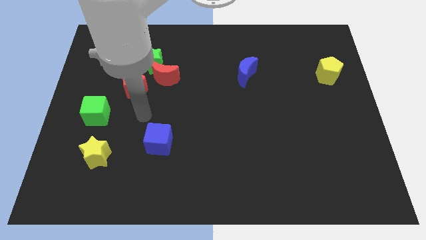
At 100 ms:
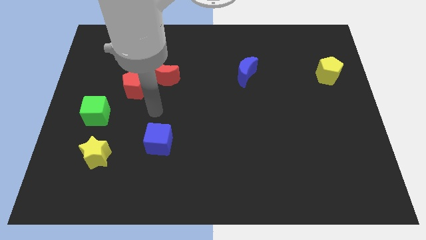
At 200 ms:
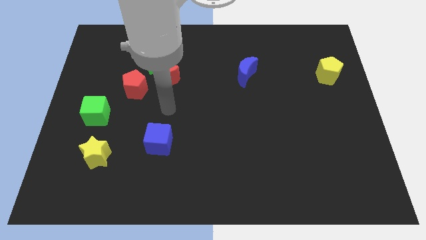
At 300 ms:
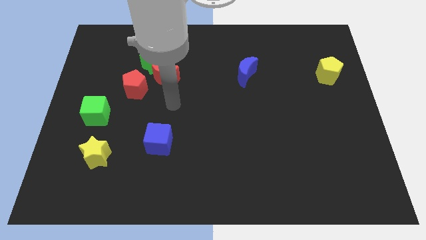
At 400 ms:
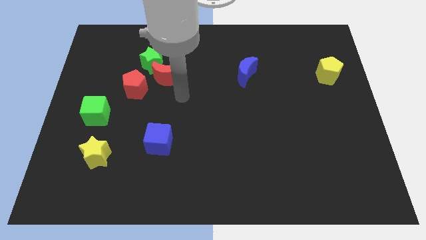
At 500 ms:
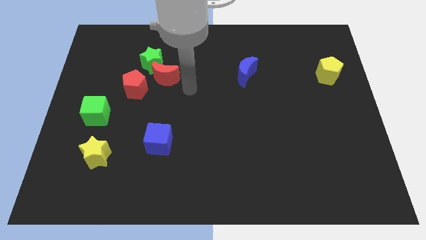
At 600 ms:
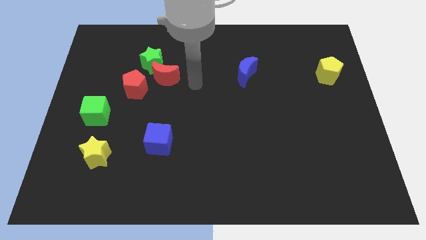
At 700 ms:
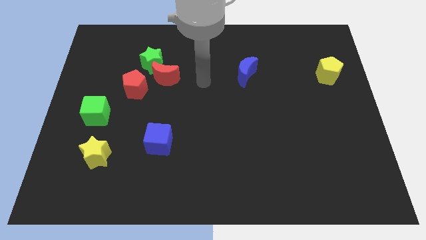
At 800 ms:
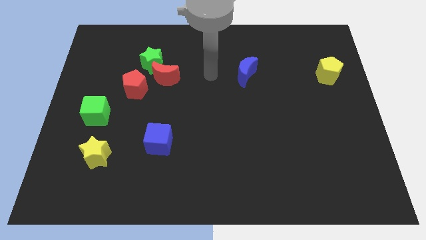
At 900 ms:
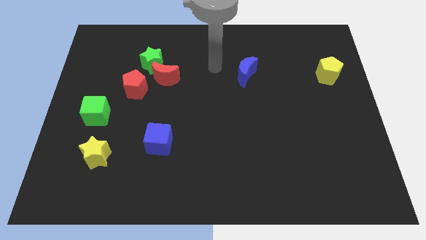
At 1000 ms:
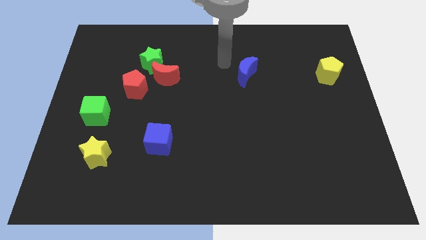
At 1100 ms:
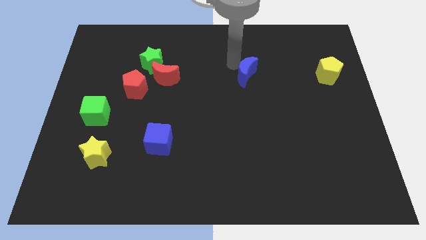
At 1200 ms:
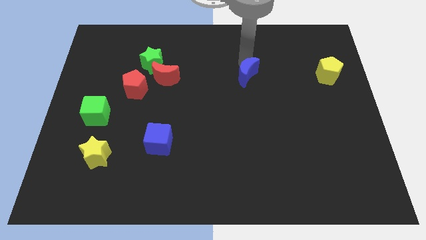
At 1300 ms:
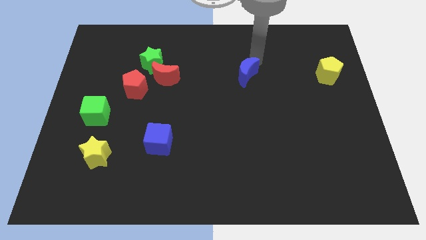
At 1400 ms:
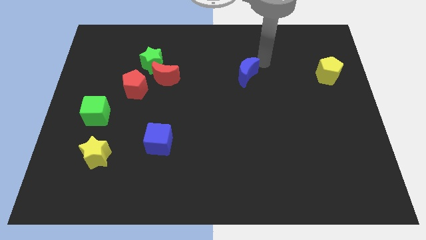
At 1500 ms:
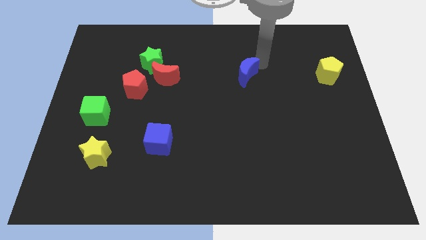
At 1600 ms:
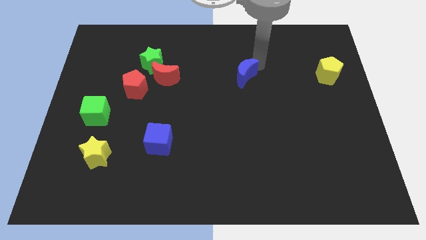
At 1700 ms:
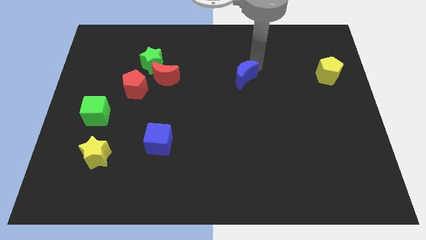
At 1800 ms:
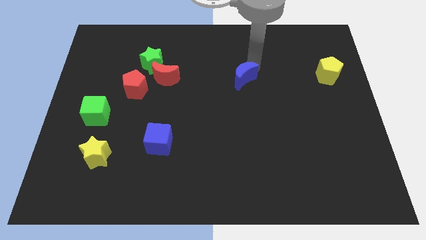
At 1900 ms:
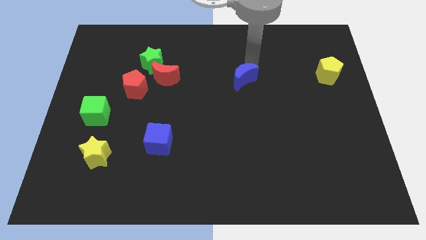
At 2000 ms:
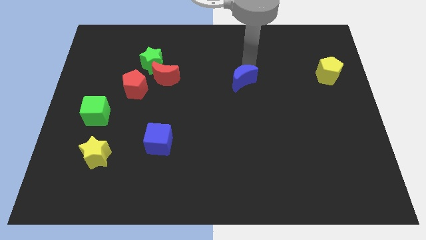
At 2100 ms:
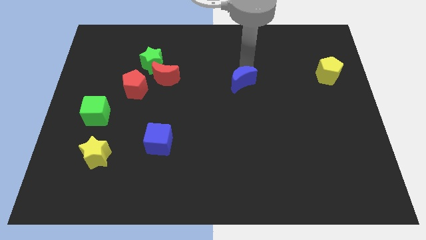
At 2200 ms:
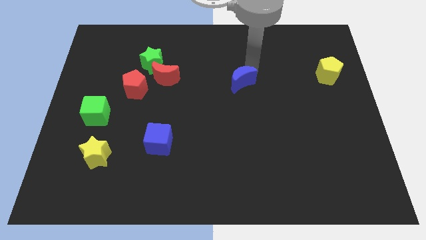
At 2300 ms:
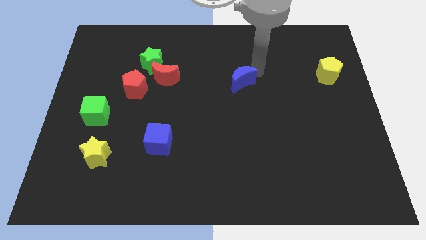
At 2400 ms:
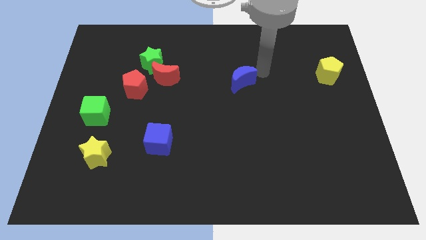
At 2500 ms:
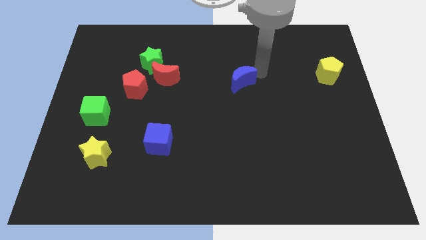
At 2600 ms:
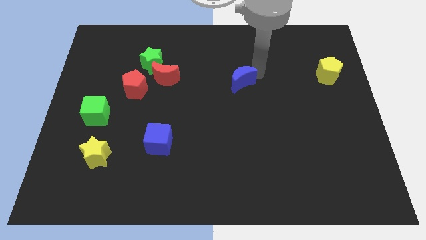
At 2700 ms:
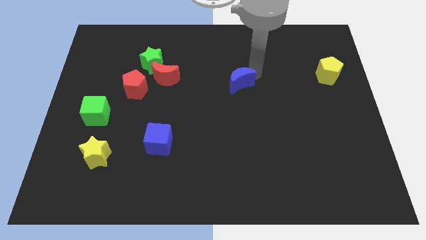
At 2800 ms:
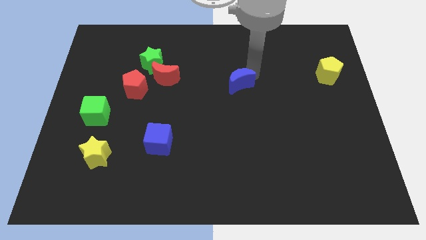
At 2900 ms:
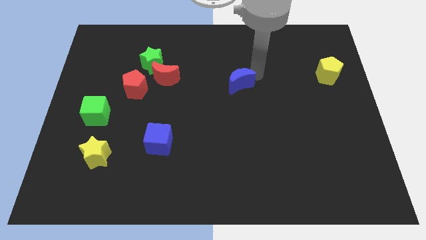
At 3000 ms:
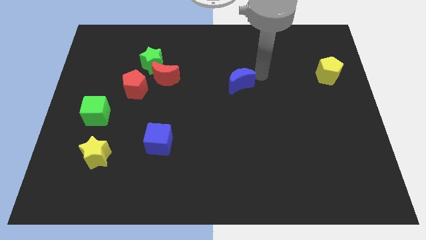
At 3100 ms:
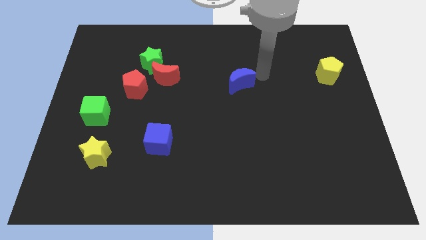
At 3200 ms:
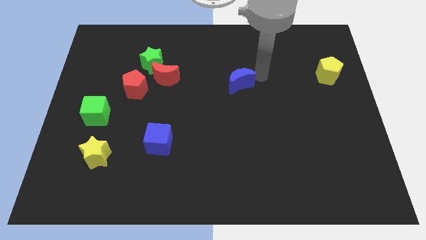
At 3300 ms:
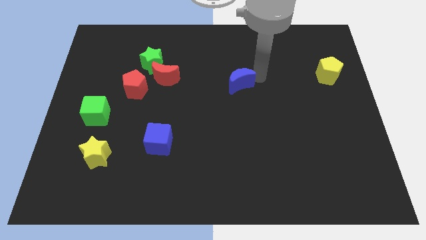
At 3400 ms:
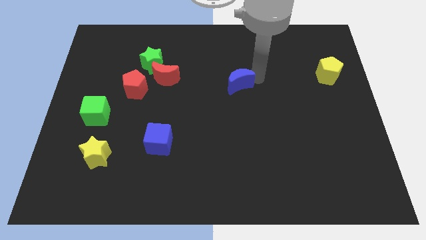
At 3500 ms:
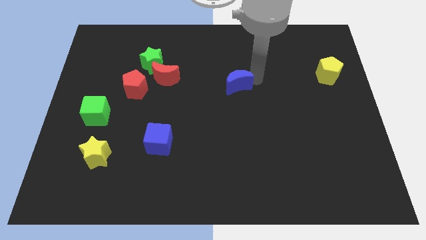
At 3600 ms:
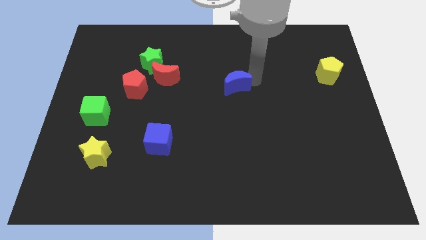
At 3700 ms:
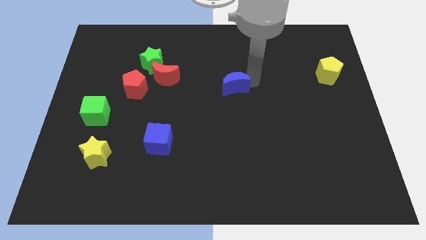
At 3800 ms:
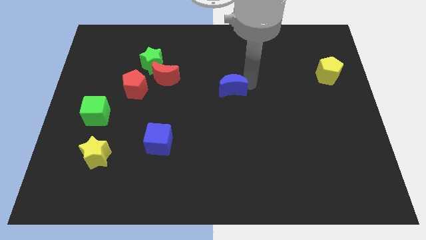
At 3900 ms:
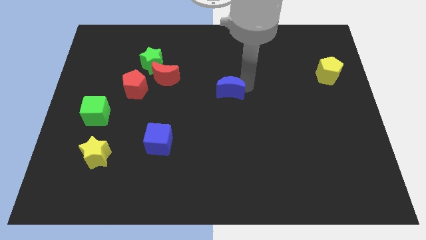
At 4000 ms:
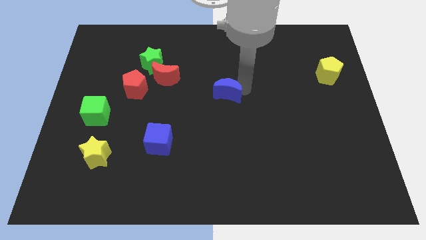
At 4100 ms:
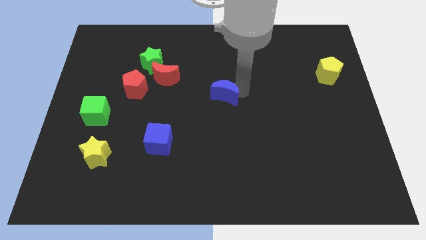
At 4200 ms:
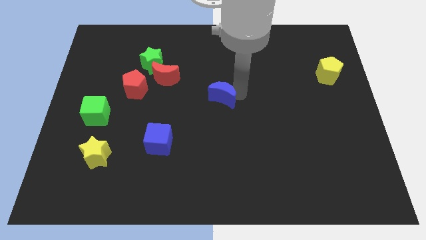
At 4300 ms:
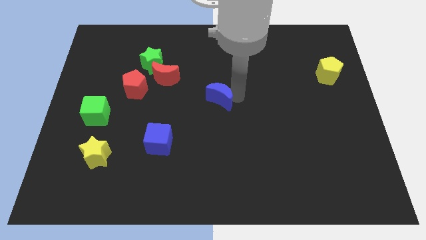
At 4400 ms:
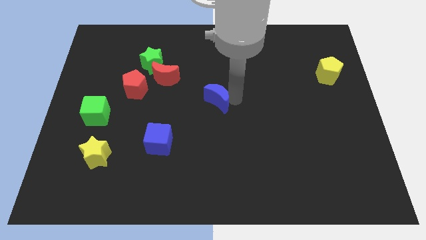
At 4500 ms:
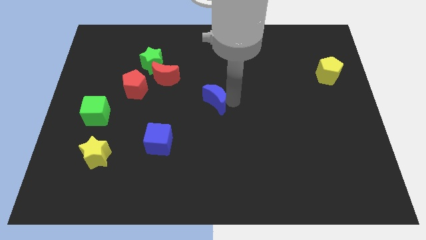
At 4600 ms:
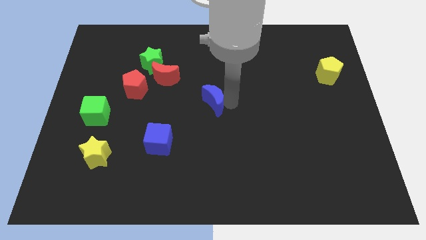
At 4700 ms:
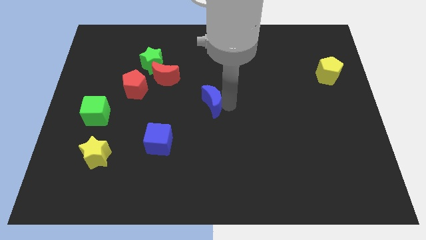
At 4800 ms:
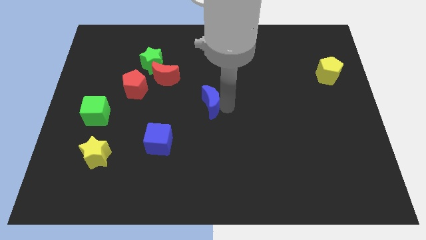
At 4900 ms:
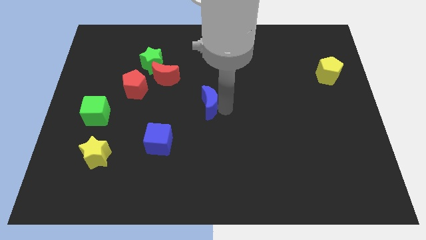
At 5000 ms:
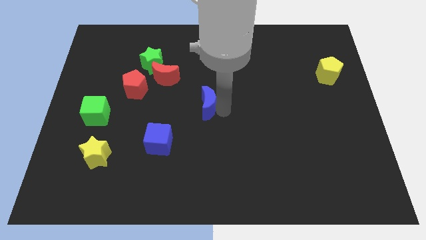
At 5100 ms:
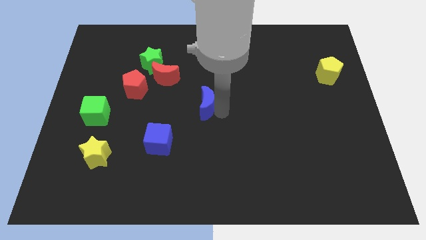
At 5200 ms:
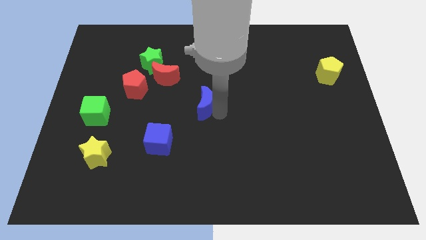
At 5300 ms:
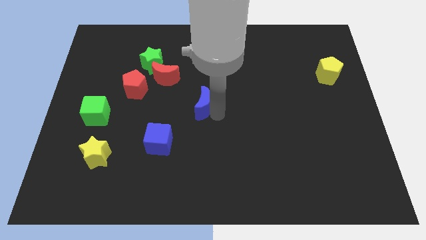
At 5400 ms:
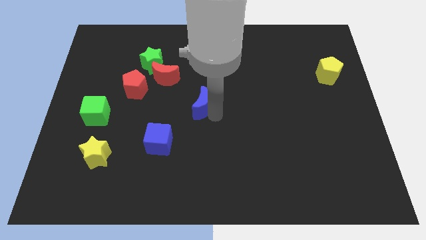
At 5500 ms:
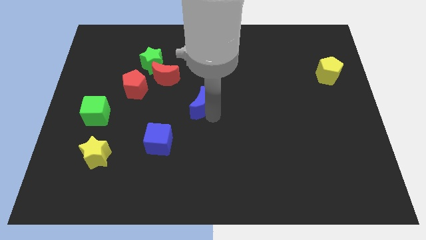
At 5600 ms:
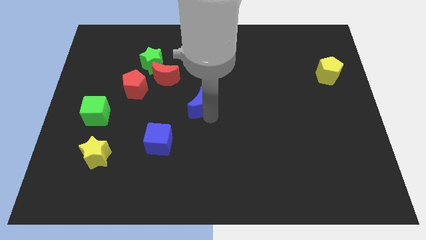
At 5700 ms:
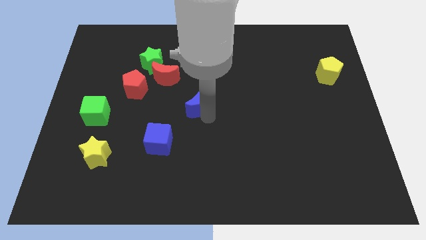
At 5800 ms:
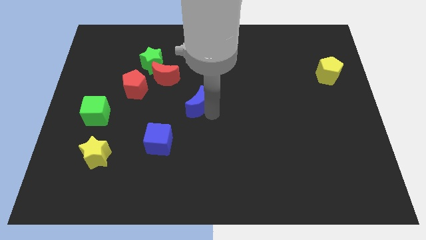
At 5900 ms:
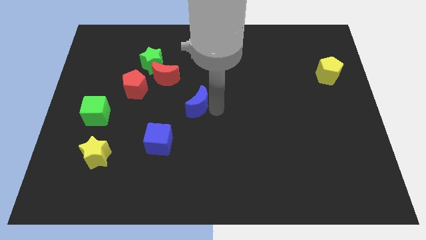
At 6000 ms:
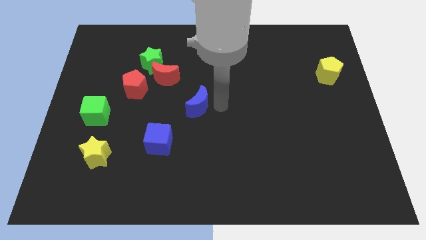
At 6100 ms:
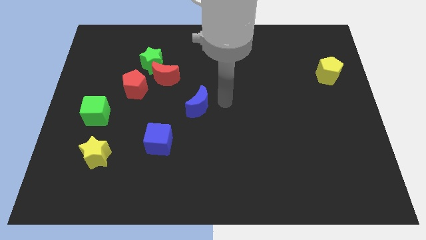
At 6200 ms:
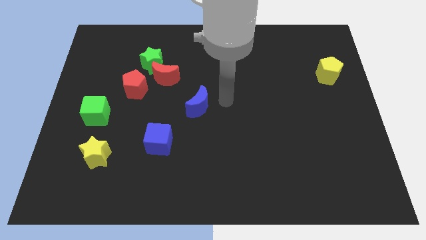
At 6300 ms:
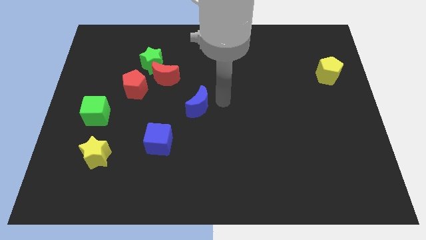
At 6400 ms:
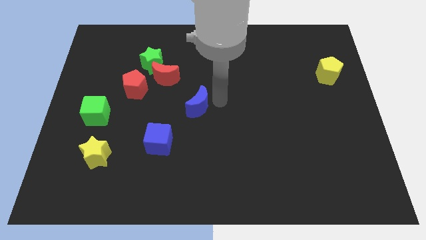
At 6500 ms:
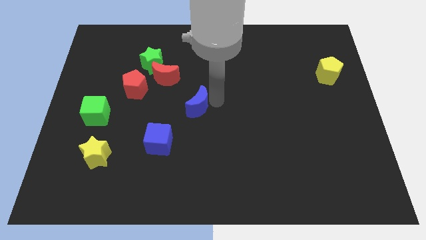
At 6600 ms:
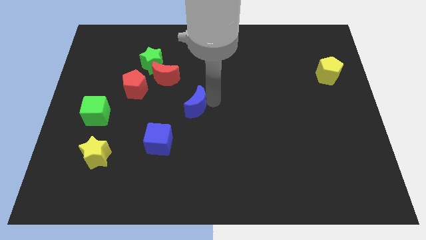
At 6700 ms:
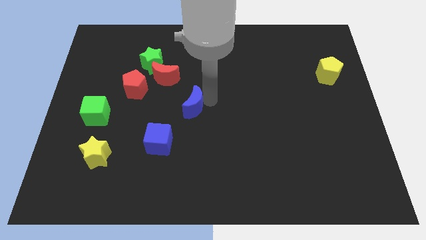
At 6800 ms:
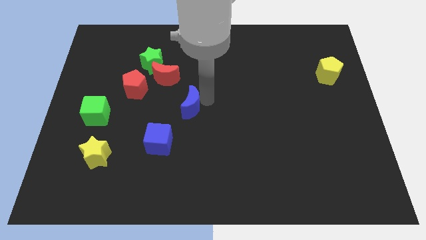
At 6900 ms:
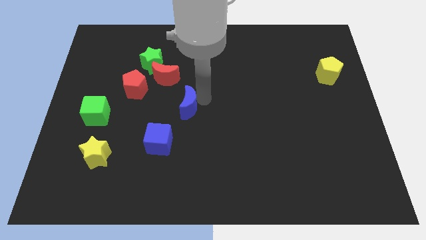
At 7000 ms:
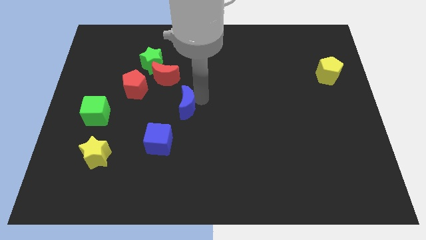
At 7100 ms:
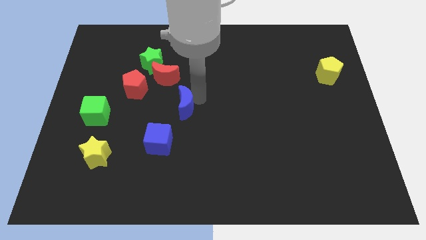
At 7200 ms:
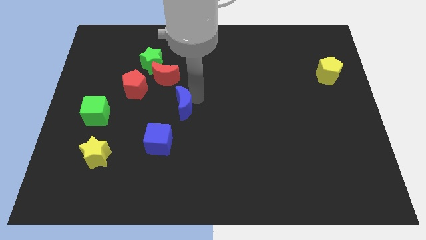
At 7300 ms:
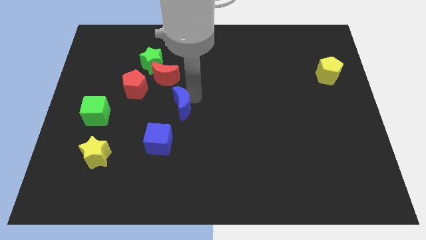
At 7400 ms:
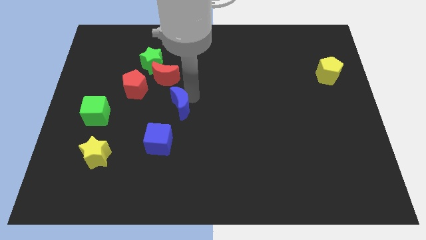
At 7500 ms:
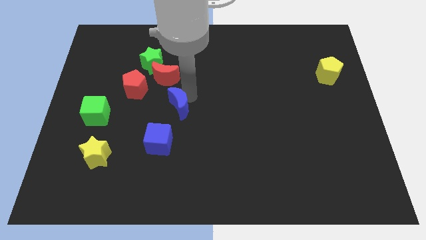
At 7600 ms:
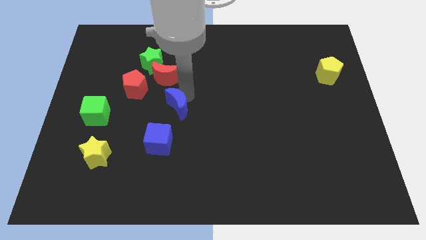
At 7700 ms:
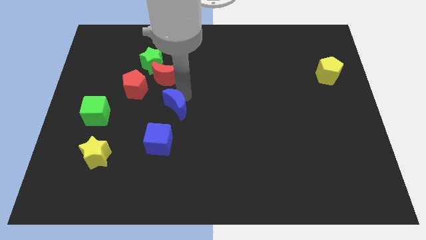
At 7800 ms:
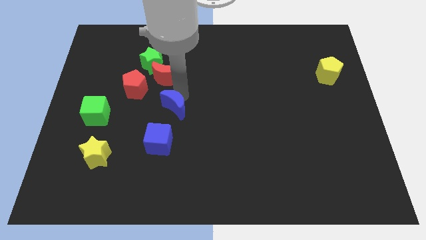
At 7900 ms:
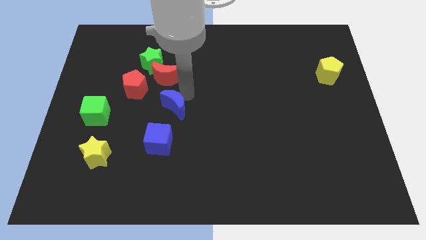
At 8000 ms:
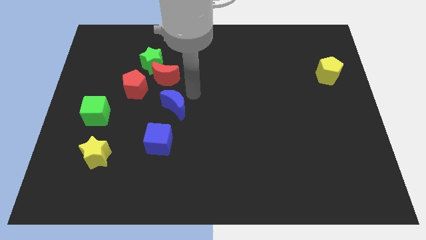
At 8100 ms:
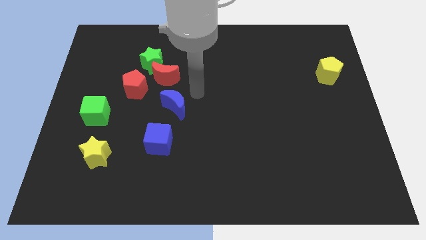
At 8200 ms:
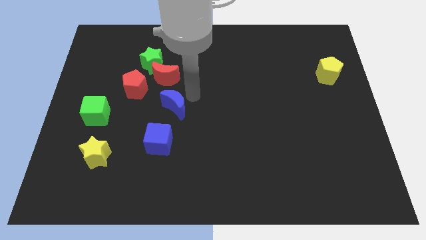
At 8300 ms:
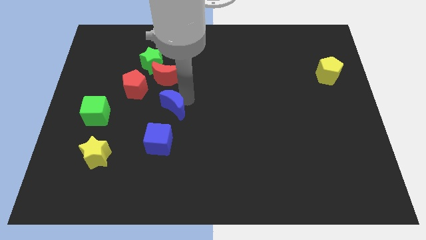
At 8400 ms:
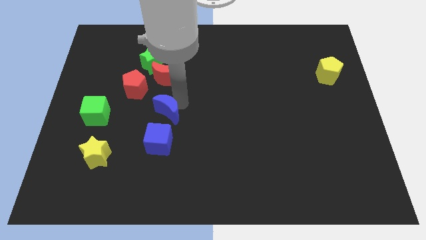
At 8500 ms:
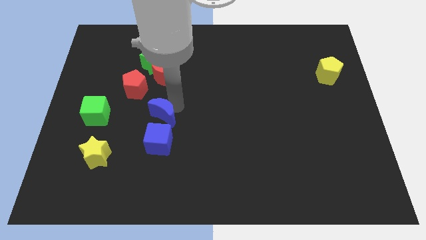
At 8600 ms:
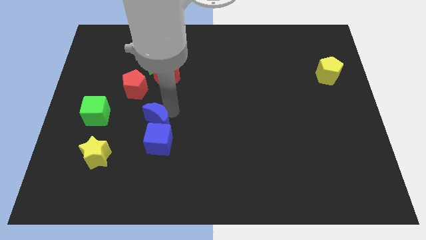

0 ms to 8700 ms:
push the blue moon to the top left side of the blue cube
